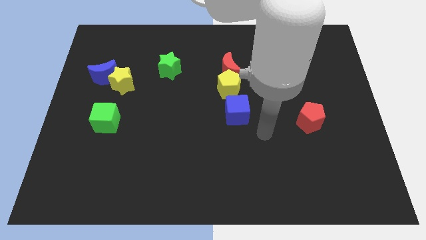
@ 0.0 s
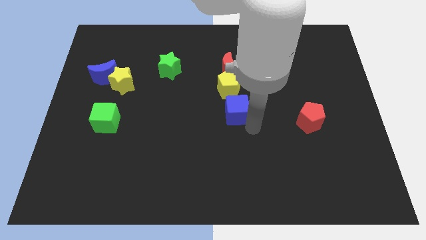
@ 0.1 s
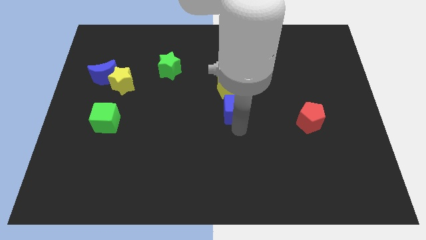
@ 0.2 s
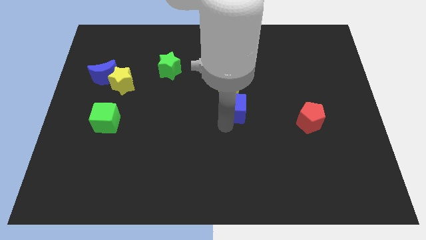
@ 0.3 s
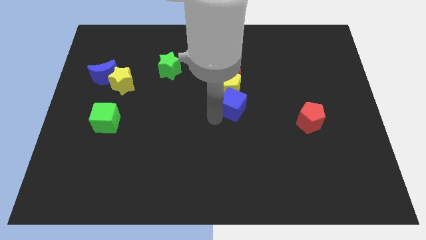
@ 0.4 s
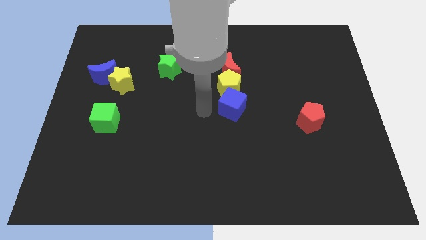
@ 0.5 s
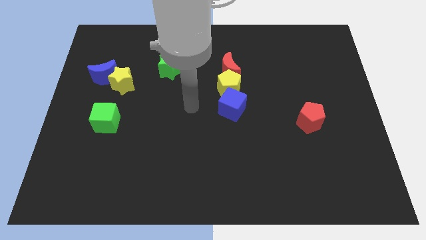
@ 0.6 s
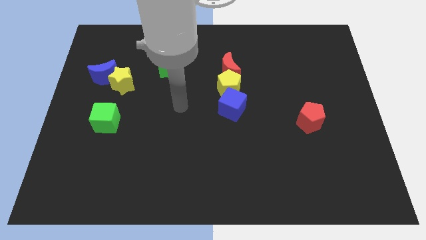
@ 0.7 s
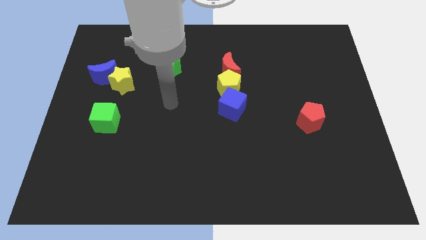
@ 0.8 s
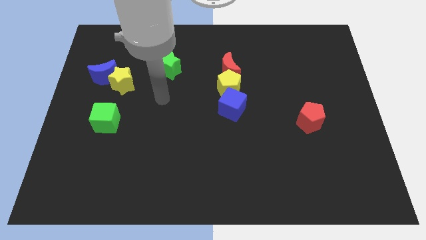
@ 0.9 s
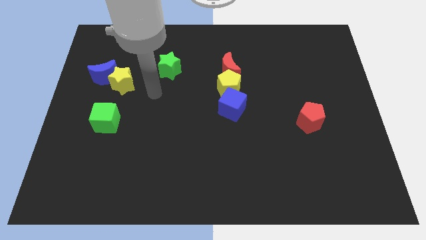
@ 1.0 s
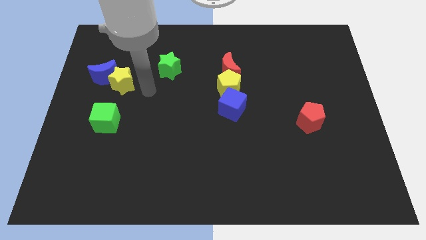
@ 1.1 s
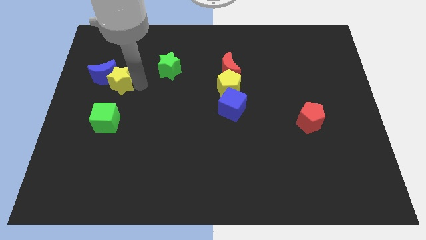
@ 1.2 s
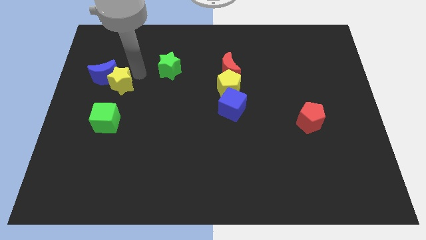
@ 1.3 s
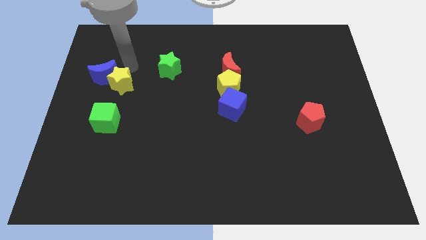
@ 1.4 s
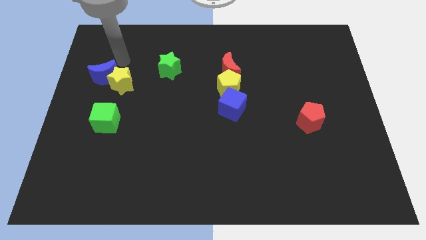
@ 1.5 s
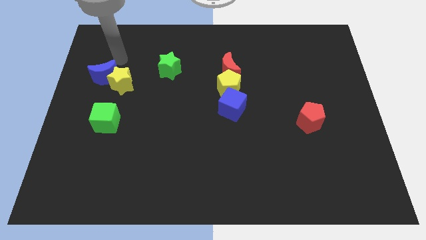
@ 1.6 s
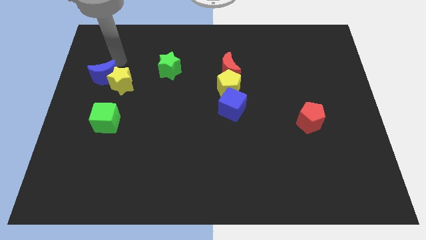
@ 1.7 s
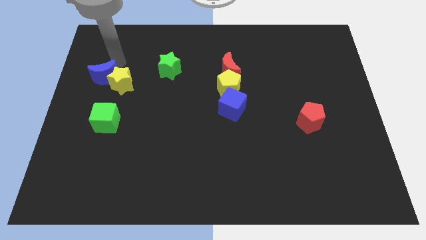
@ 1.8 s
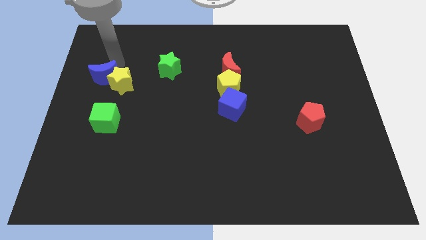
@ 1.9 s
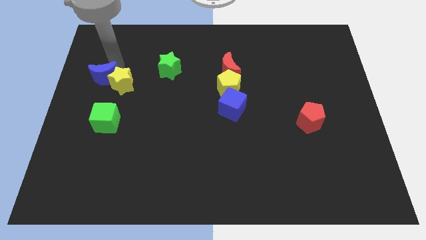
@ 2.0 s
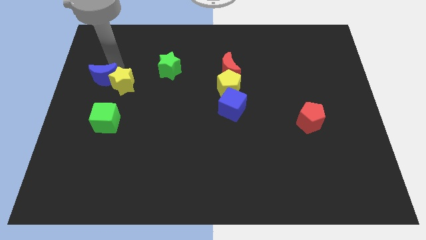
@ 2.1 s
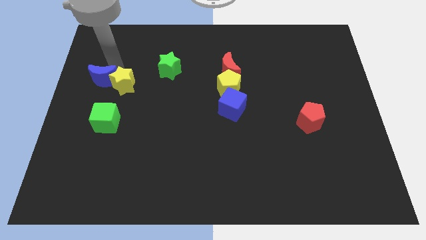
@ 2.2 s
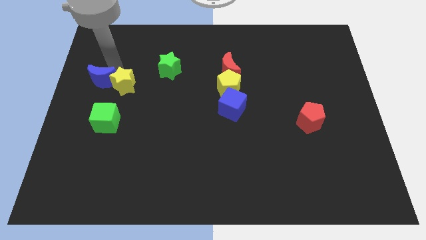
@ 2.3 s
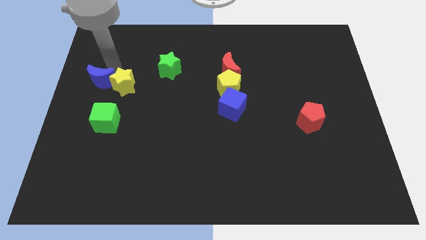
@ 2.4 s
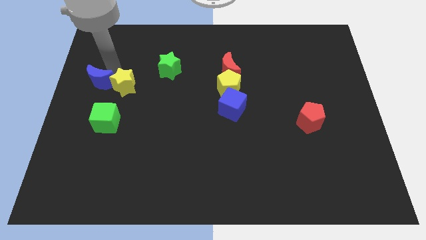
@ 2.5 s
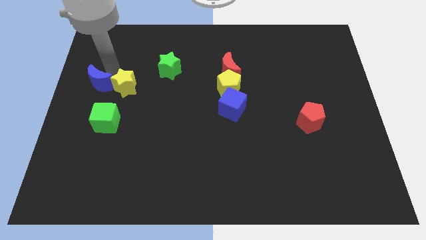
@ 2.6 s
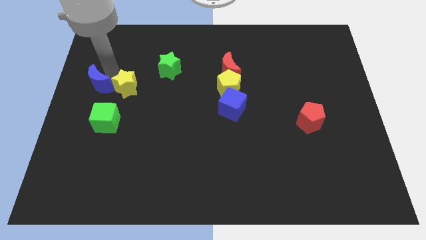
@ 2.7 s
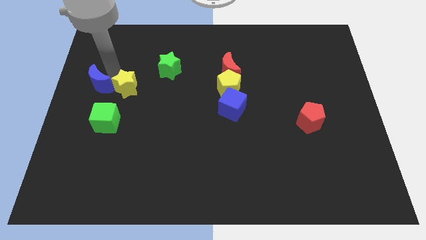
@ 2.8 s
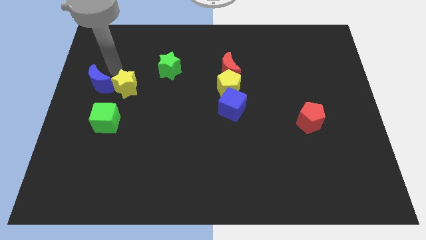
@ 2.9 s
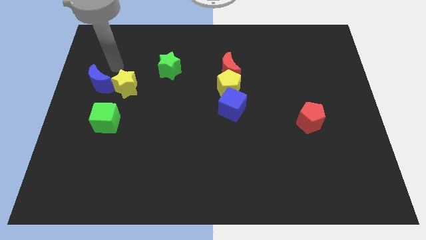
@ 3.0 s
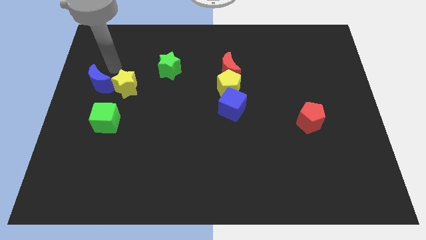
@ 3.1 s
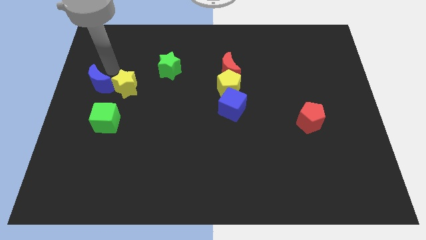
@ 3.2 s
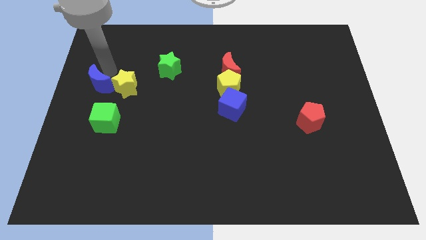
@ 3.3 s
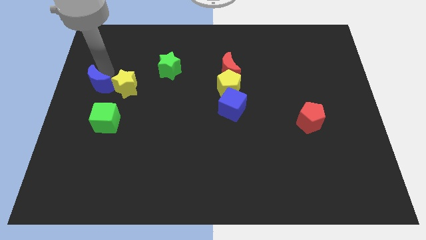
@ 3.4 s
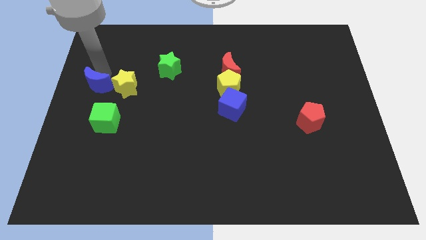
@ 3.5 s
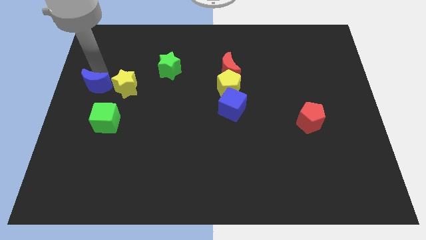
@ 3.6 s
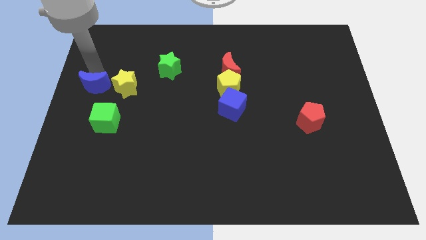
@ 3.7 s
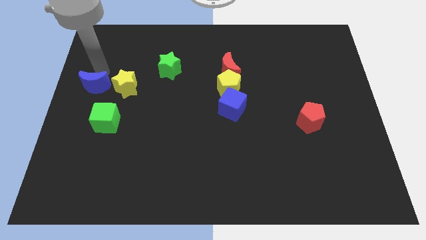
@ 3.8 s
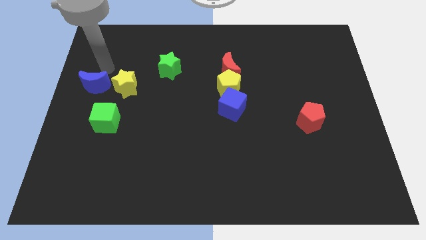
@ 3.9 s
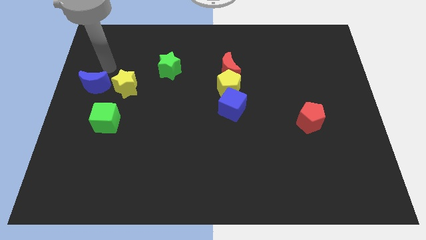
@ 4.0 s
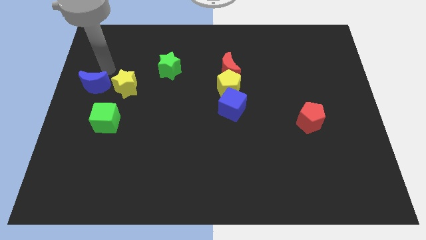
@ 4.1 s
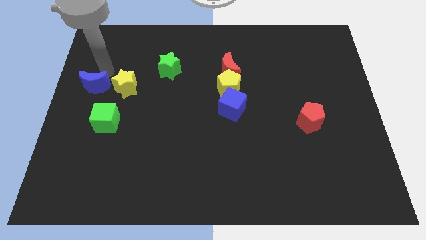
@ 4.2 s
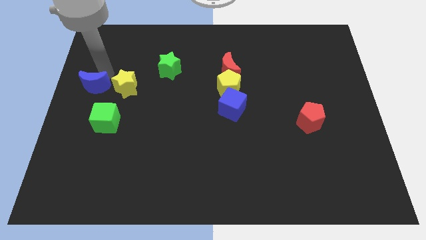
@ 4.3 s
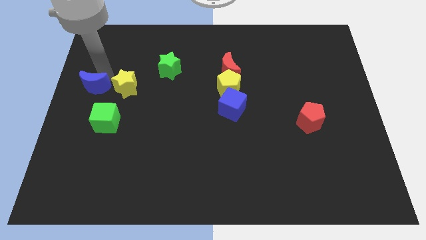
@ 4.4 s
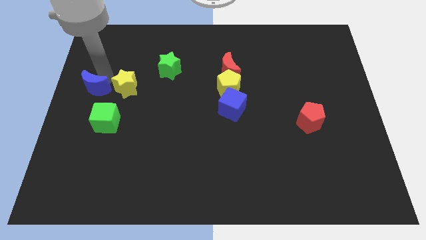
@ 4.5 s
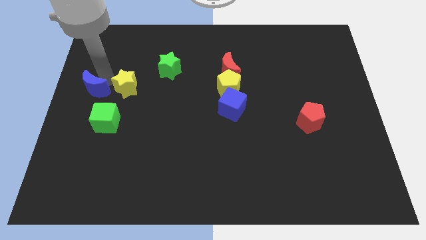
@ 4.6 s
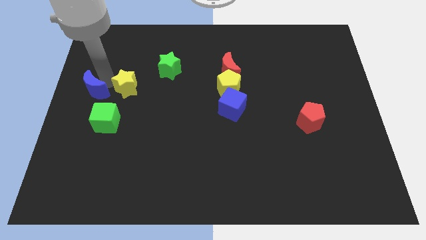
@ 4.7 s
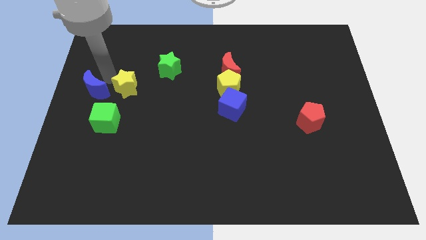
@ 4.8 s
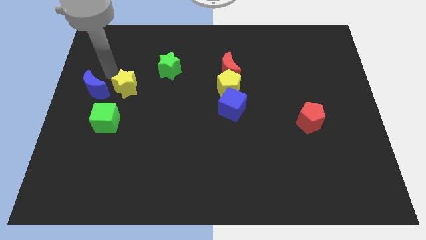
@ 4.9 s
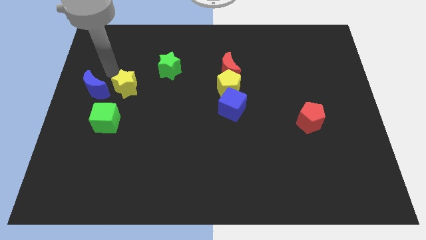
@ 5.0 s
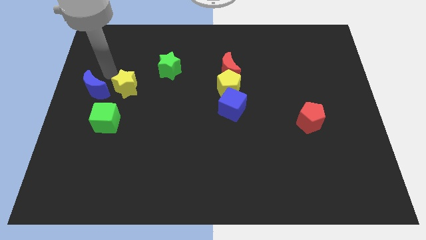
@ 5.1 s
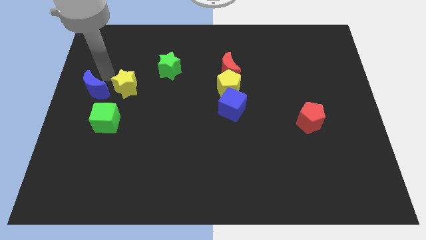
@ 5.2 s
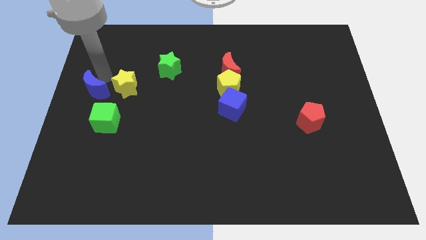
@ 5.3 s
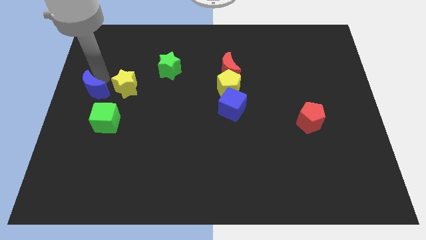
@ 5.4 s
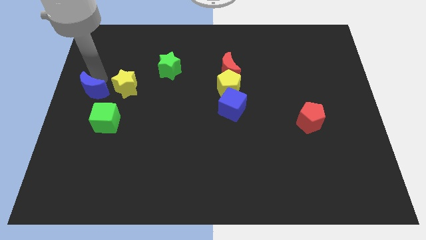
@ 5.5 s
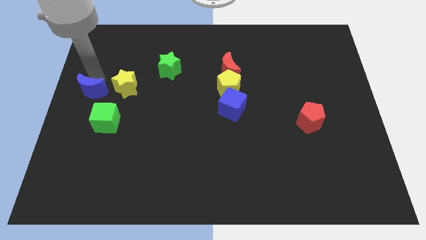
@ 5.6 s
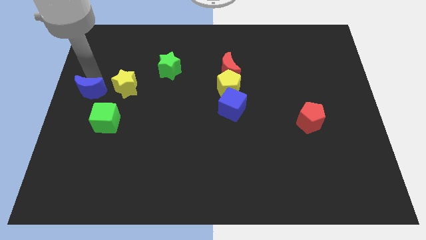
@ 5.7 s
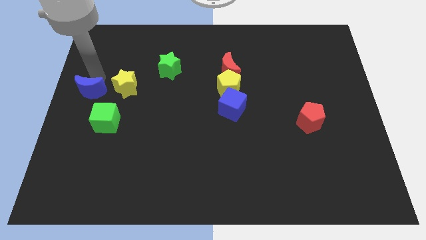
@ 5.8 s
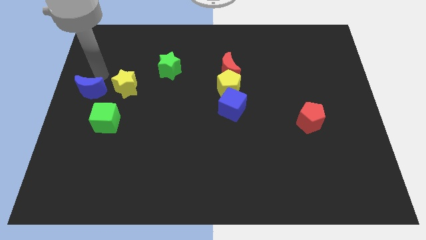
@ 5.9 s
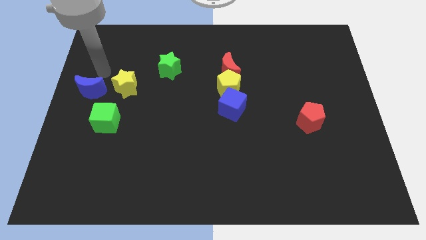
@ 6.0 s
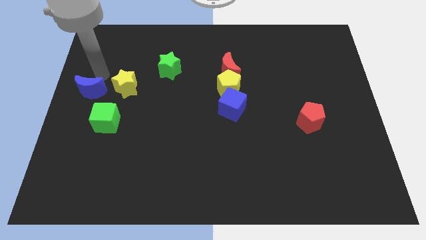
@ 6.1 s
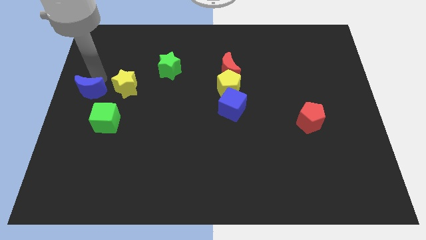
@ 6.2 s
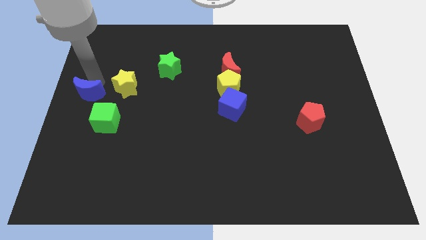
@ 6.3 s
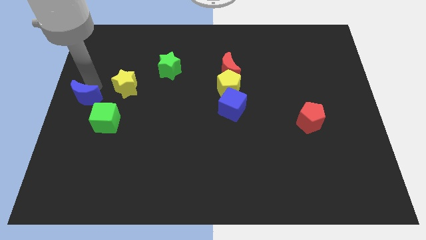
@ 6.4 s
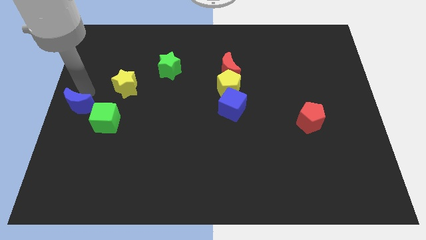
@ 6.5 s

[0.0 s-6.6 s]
slightly move the blue moon downwards

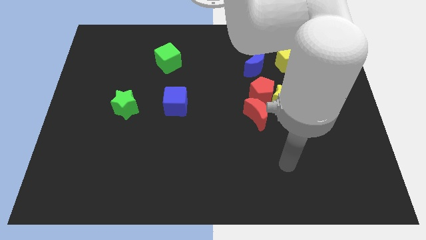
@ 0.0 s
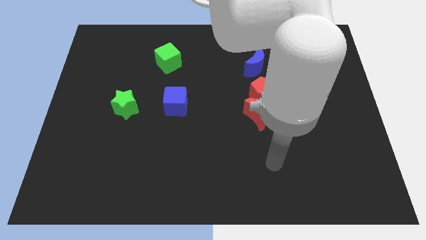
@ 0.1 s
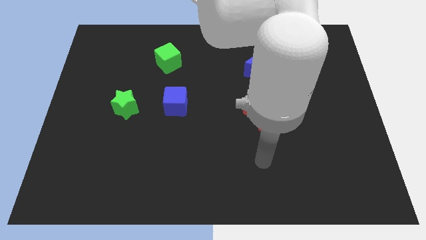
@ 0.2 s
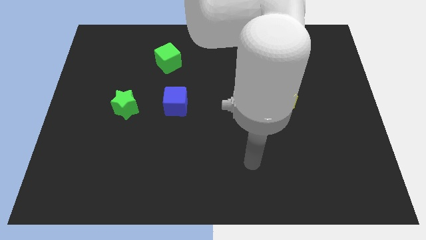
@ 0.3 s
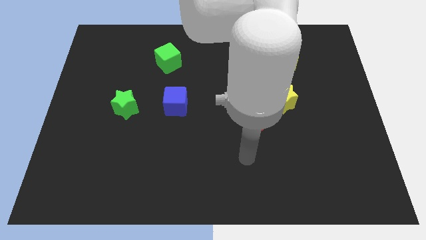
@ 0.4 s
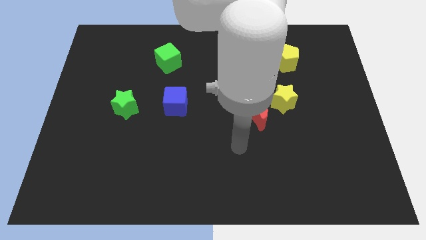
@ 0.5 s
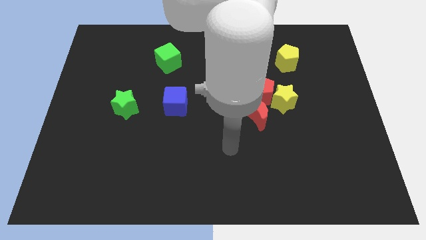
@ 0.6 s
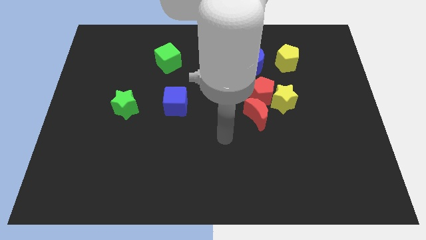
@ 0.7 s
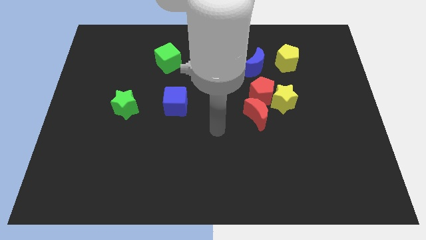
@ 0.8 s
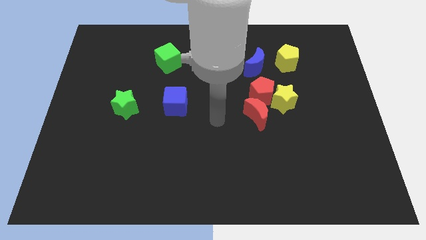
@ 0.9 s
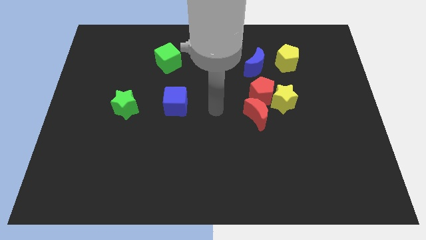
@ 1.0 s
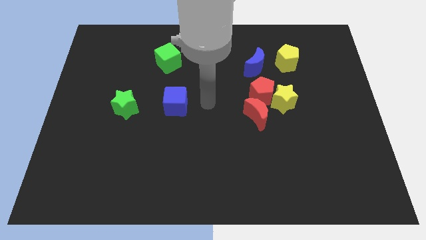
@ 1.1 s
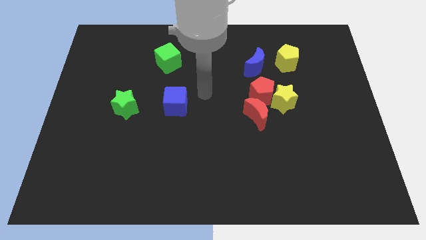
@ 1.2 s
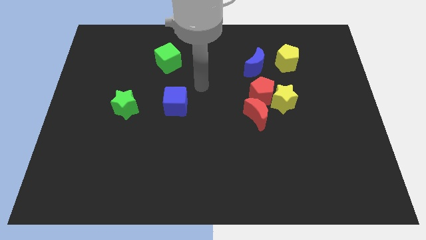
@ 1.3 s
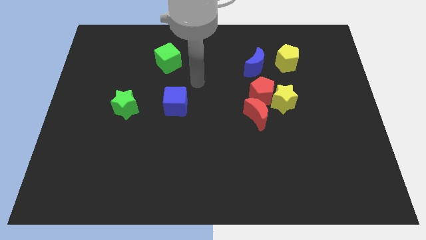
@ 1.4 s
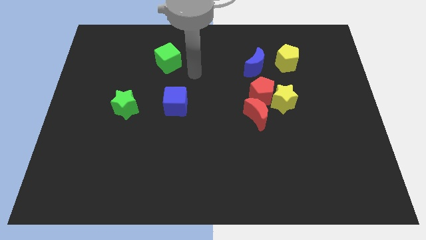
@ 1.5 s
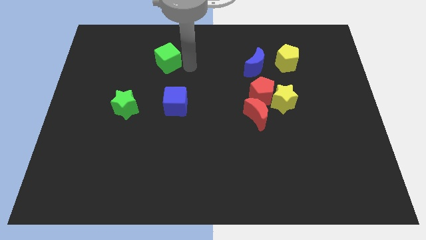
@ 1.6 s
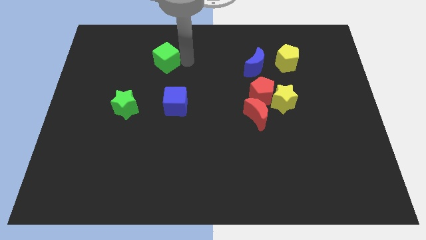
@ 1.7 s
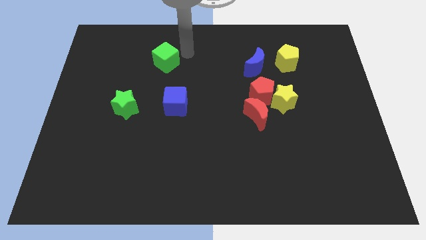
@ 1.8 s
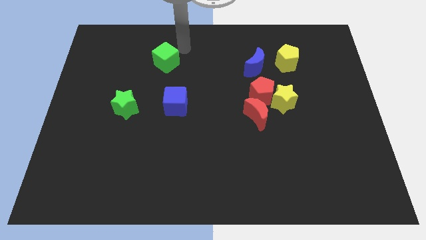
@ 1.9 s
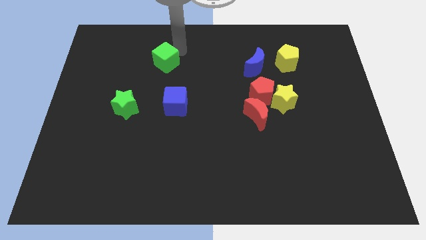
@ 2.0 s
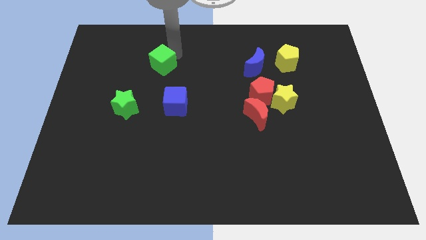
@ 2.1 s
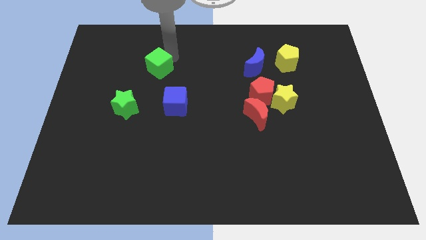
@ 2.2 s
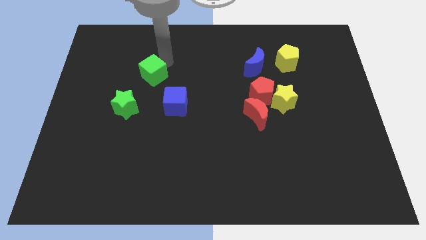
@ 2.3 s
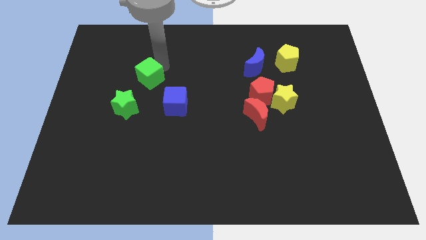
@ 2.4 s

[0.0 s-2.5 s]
slightly push the green cube downwards and then to the left
